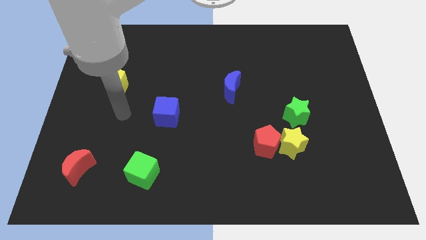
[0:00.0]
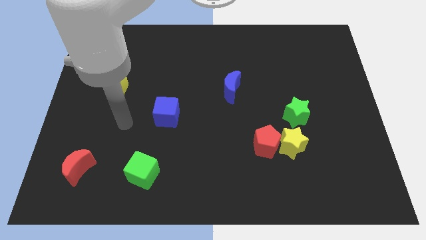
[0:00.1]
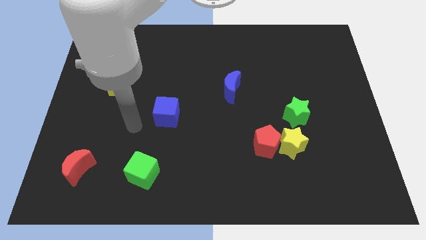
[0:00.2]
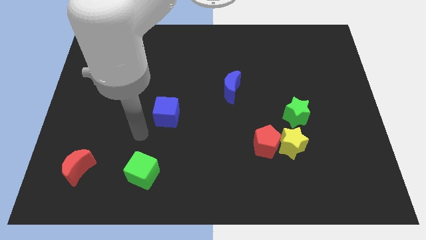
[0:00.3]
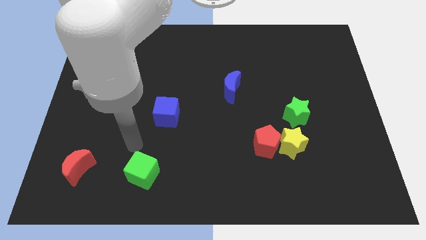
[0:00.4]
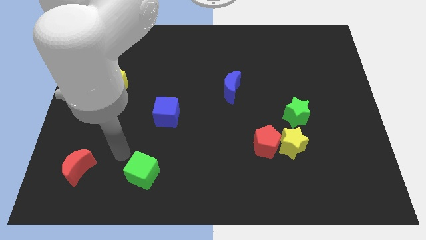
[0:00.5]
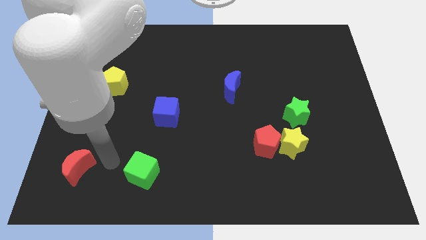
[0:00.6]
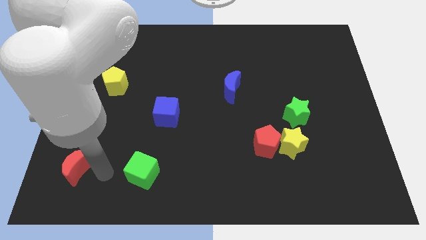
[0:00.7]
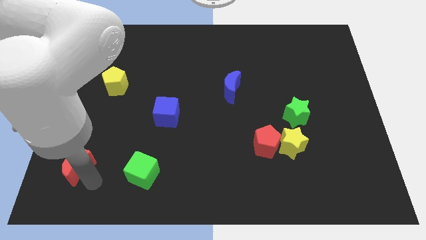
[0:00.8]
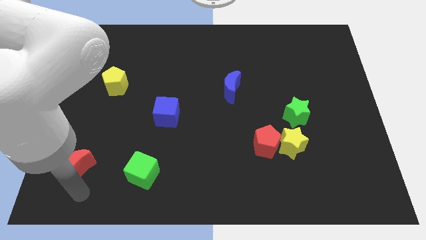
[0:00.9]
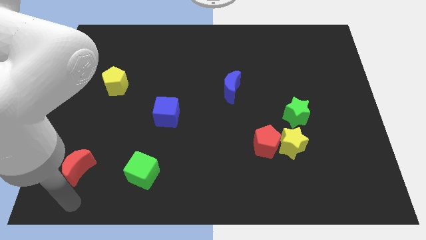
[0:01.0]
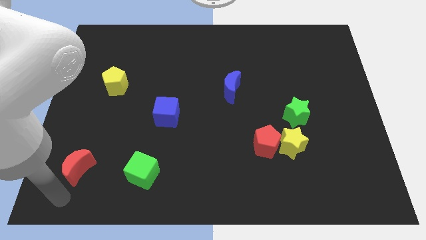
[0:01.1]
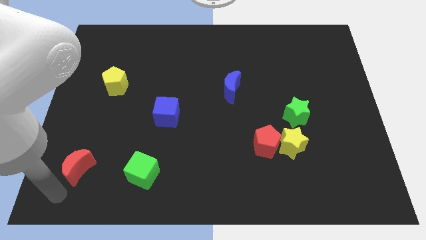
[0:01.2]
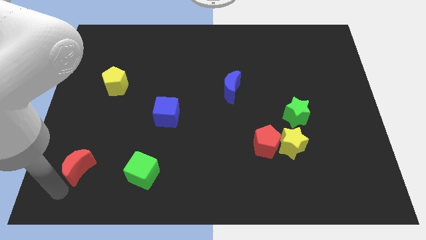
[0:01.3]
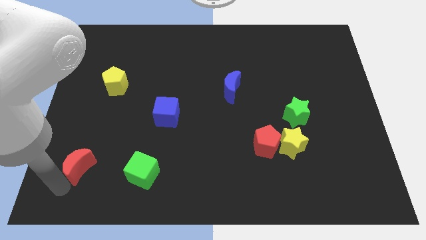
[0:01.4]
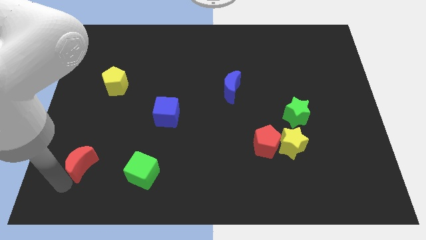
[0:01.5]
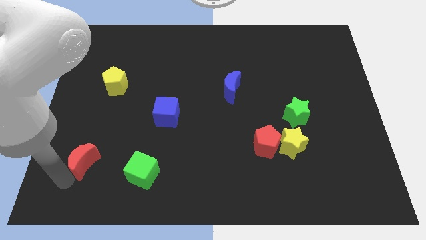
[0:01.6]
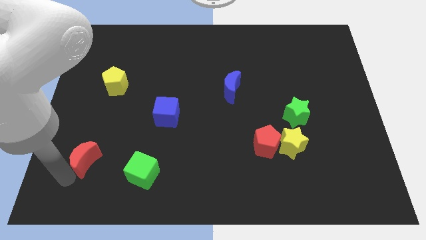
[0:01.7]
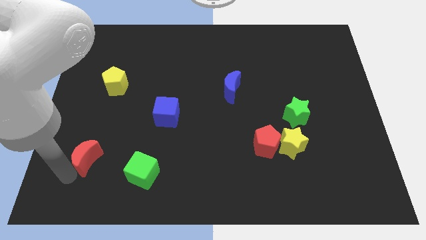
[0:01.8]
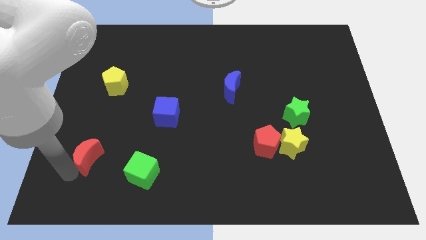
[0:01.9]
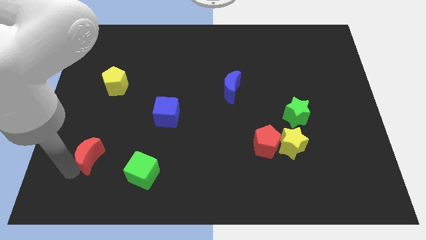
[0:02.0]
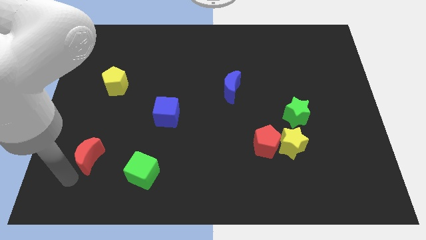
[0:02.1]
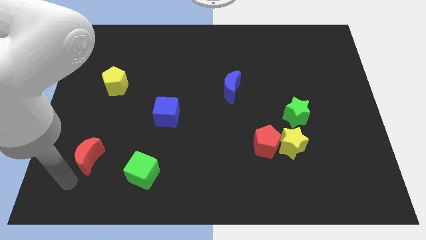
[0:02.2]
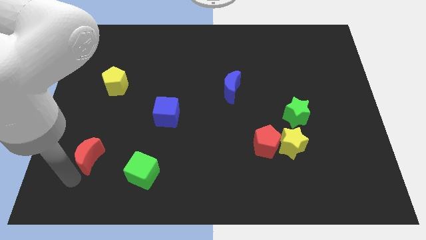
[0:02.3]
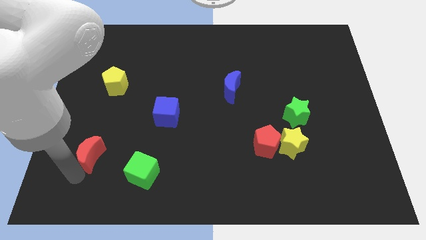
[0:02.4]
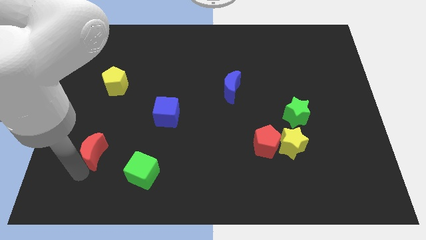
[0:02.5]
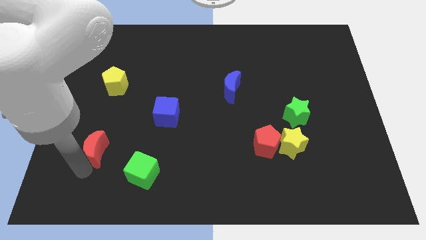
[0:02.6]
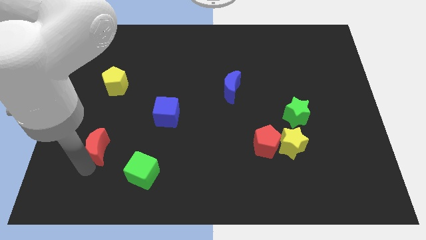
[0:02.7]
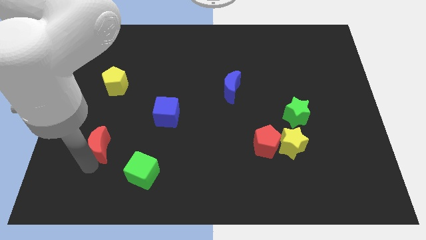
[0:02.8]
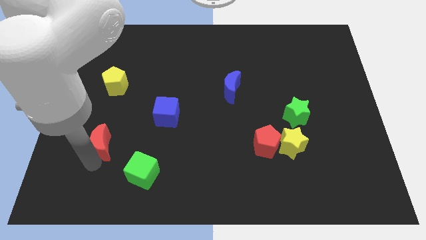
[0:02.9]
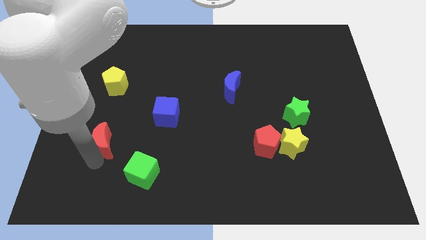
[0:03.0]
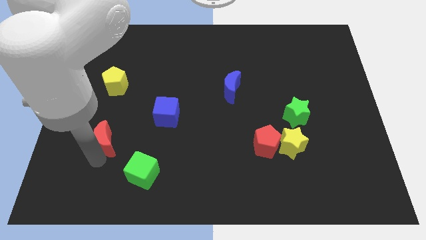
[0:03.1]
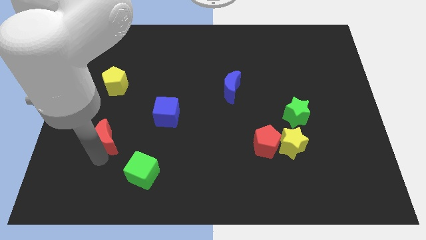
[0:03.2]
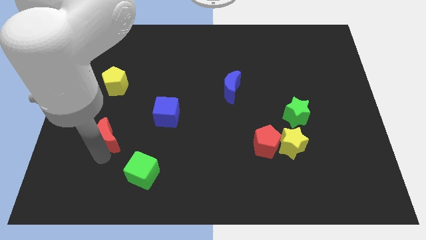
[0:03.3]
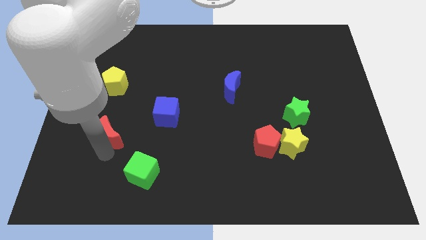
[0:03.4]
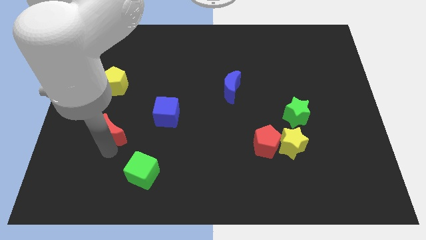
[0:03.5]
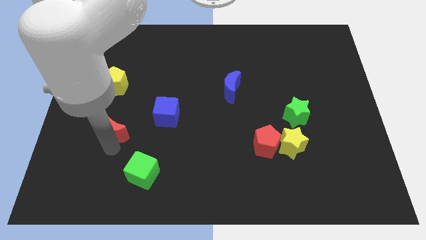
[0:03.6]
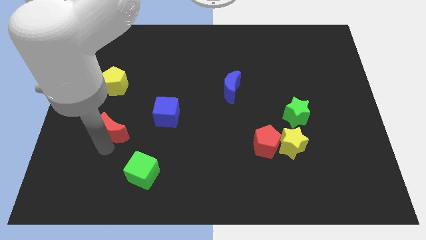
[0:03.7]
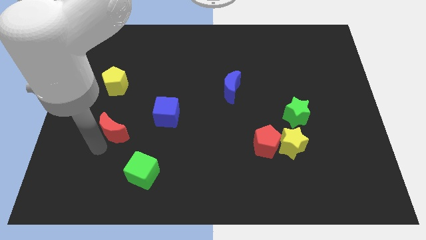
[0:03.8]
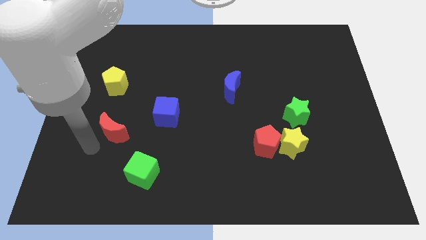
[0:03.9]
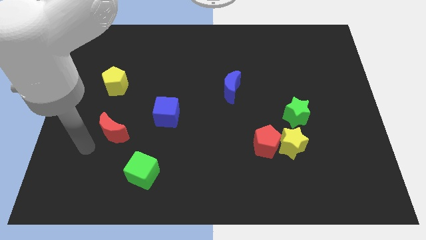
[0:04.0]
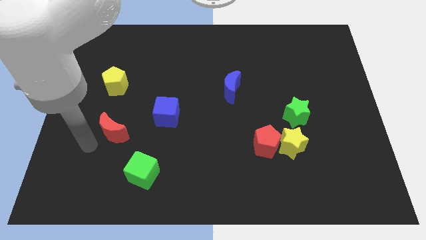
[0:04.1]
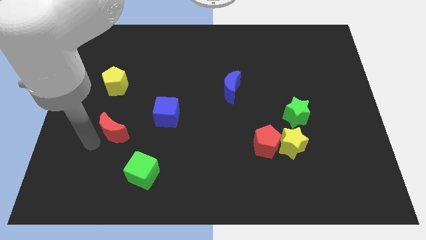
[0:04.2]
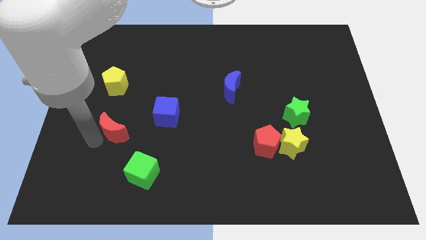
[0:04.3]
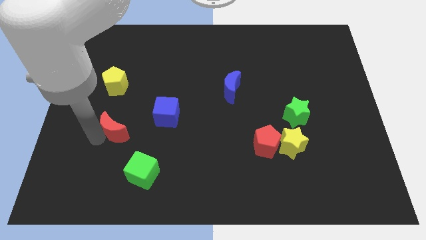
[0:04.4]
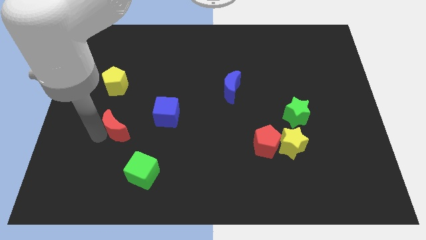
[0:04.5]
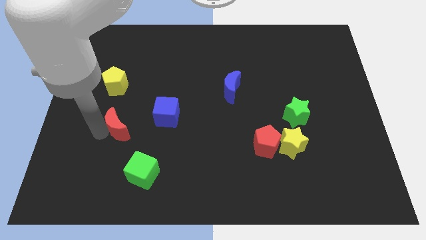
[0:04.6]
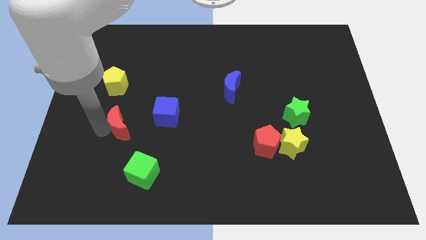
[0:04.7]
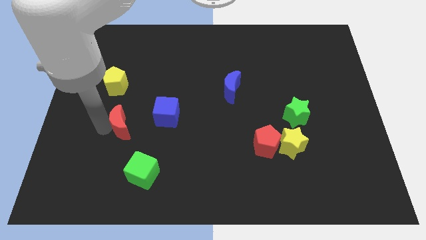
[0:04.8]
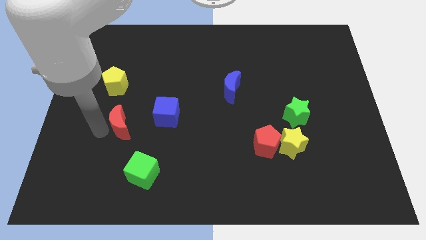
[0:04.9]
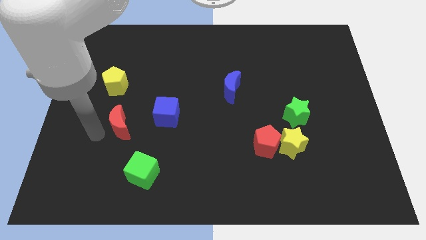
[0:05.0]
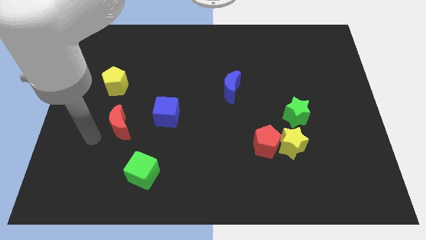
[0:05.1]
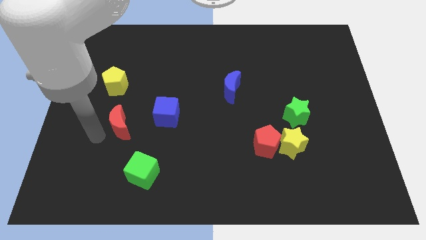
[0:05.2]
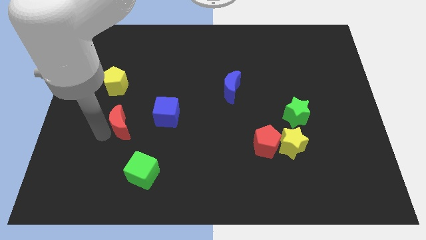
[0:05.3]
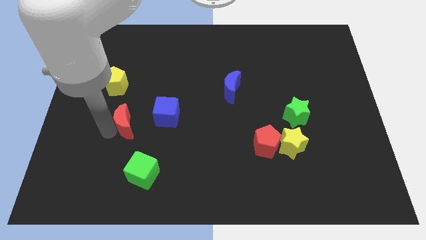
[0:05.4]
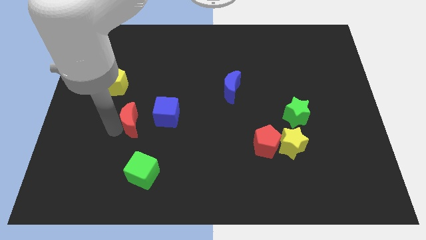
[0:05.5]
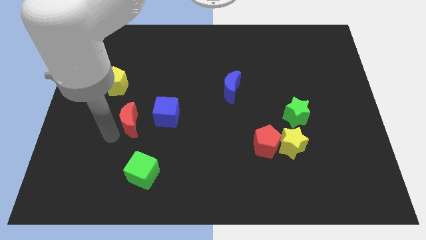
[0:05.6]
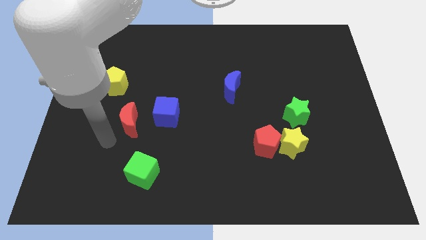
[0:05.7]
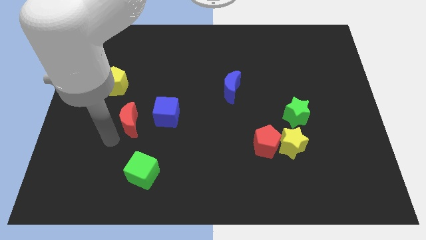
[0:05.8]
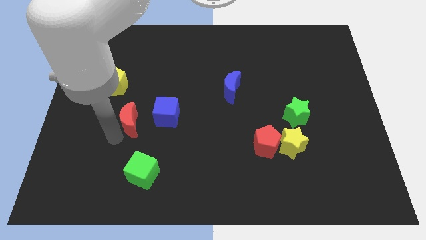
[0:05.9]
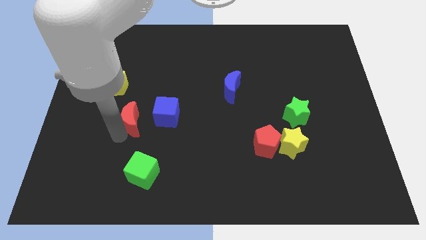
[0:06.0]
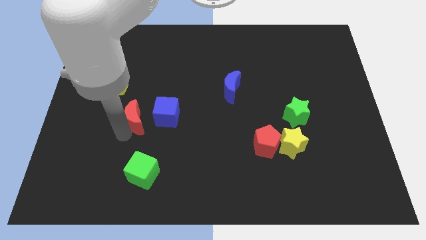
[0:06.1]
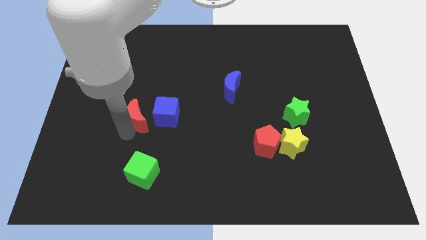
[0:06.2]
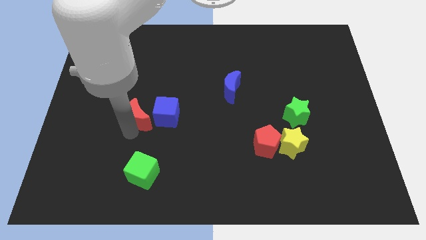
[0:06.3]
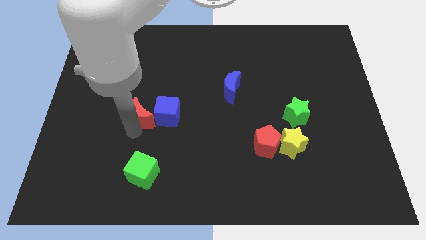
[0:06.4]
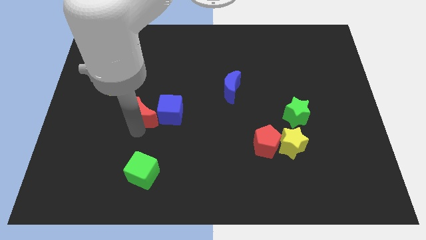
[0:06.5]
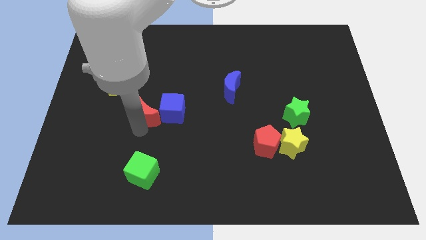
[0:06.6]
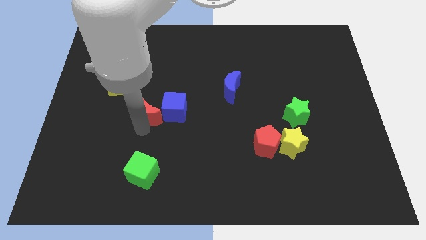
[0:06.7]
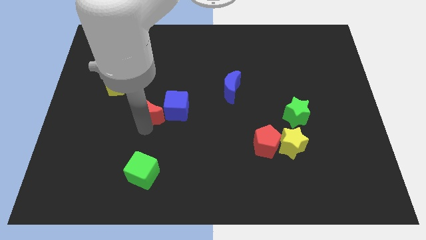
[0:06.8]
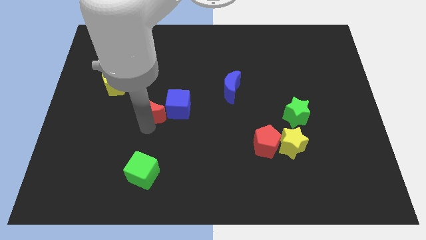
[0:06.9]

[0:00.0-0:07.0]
slide the red moon diagonally up and right

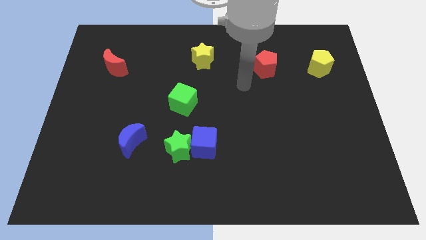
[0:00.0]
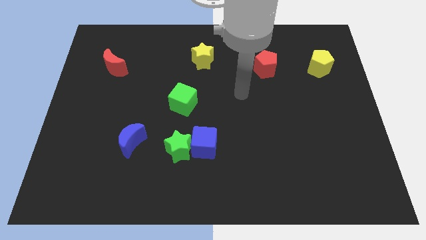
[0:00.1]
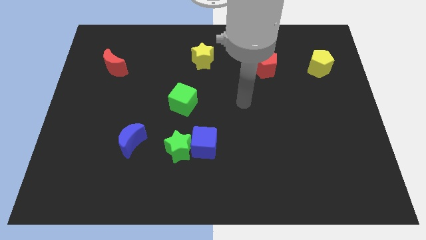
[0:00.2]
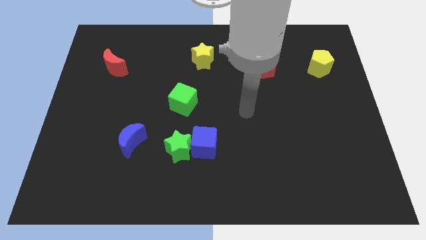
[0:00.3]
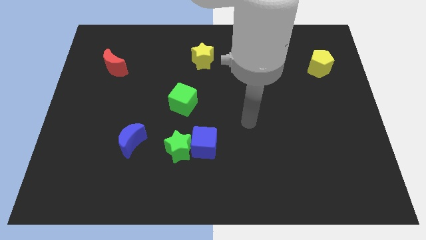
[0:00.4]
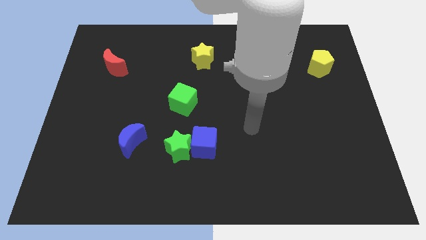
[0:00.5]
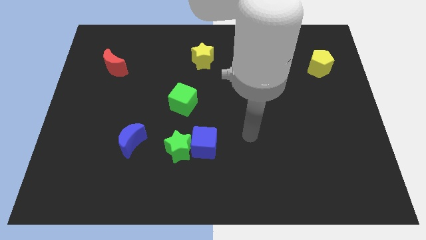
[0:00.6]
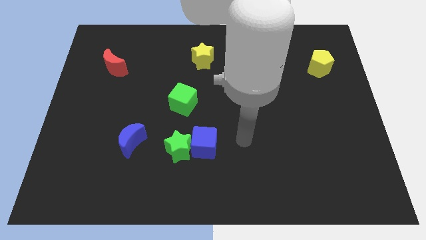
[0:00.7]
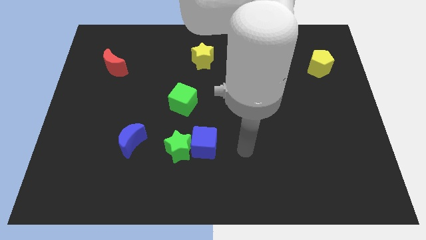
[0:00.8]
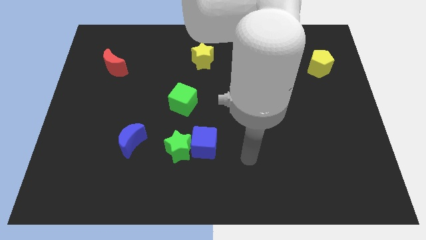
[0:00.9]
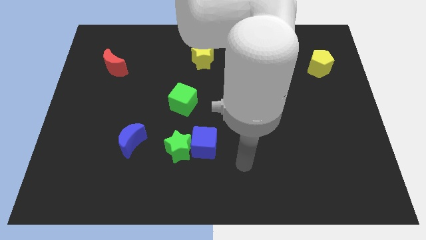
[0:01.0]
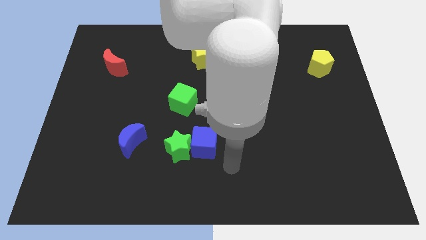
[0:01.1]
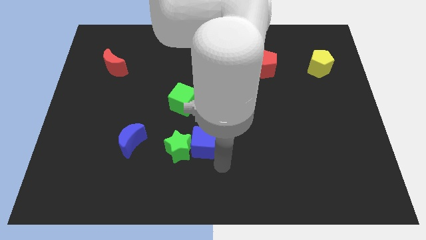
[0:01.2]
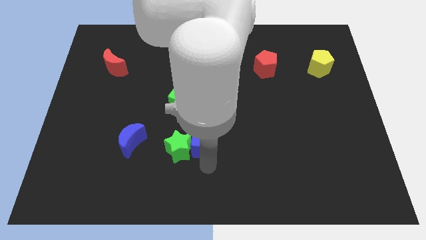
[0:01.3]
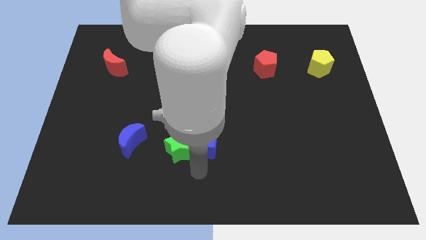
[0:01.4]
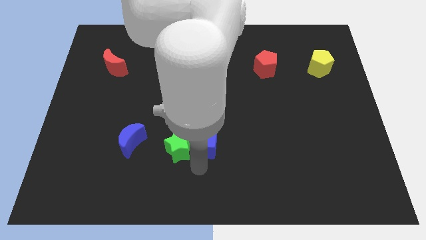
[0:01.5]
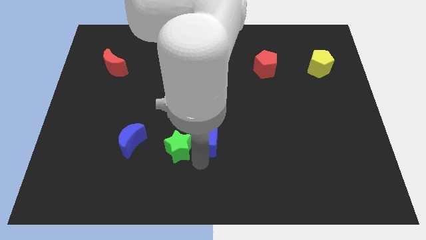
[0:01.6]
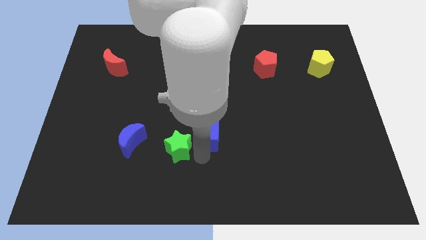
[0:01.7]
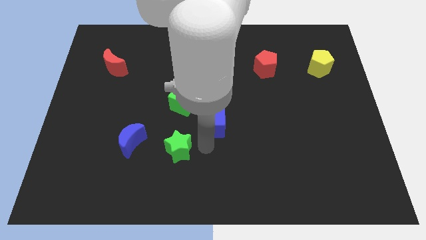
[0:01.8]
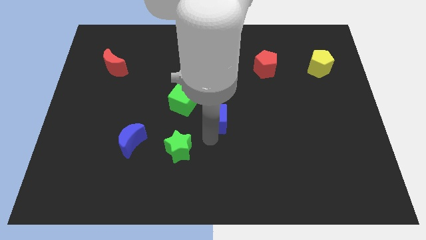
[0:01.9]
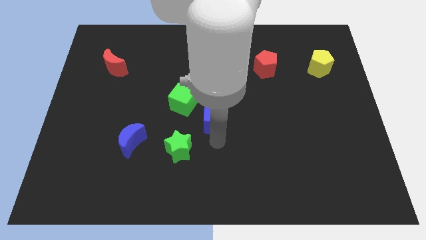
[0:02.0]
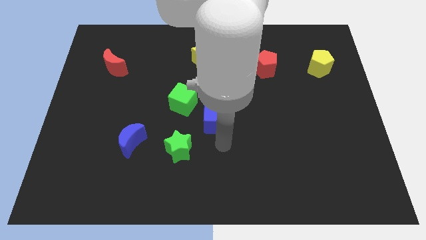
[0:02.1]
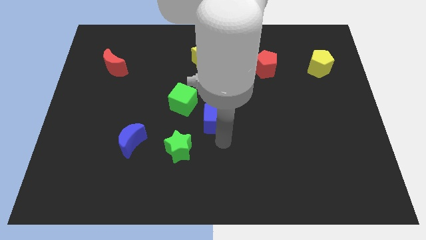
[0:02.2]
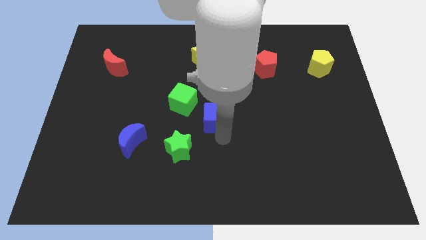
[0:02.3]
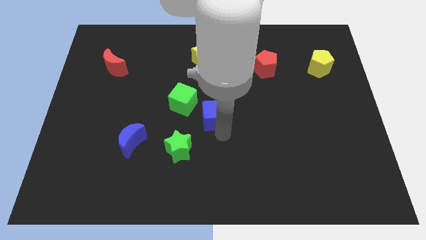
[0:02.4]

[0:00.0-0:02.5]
slightly push the blue cube up
